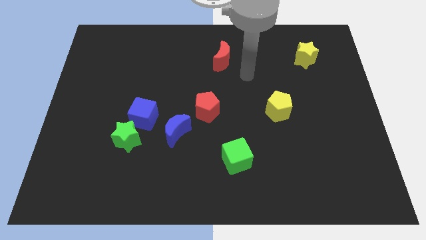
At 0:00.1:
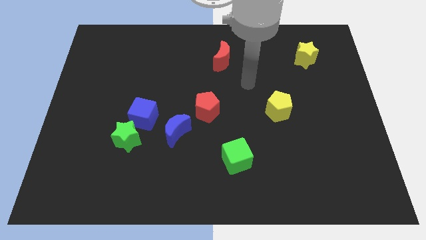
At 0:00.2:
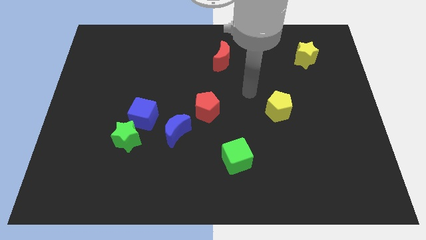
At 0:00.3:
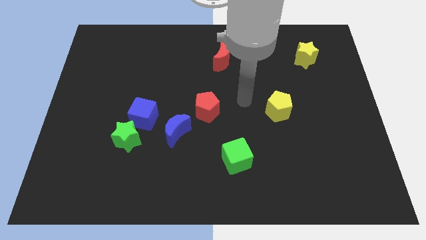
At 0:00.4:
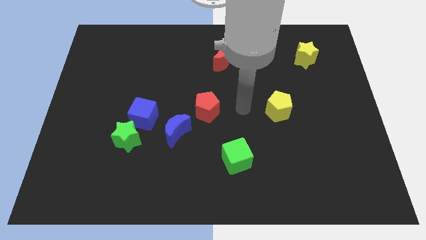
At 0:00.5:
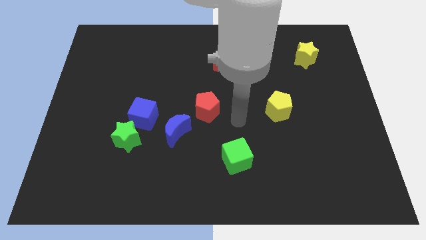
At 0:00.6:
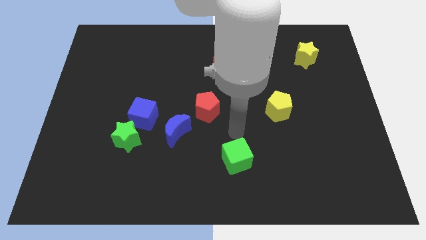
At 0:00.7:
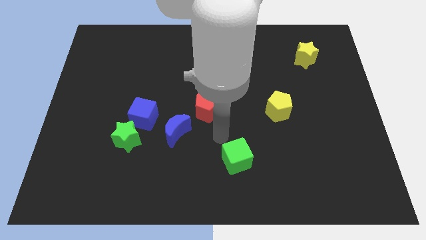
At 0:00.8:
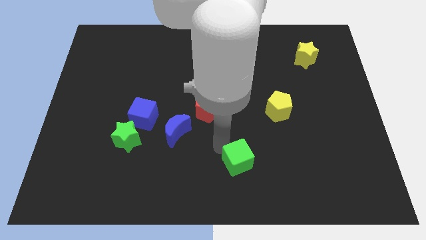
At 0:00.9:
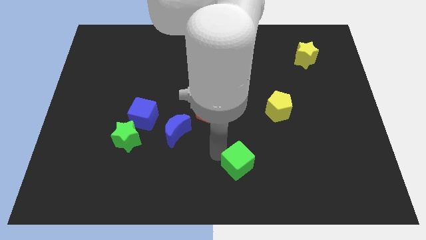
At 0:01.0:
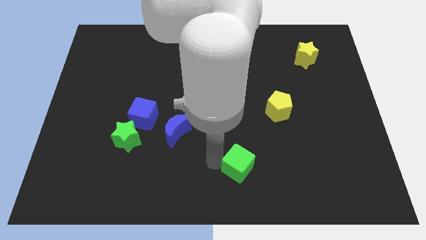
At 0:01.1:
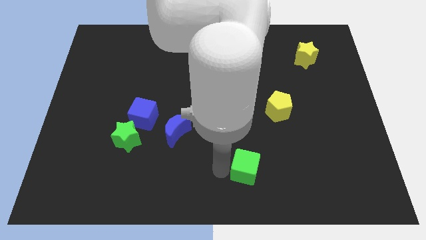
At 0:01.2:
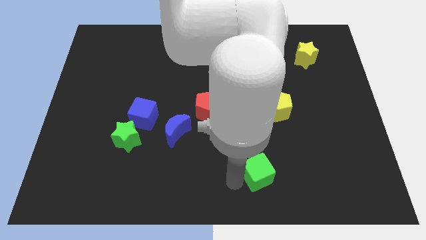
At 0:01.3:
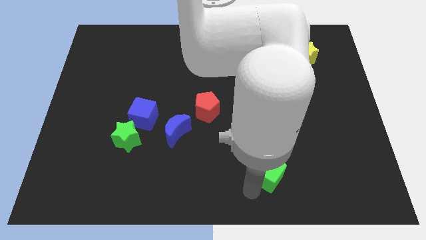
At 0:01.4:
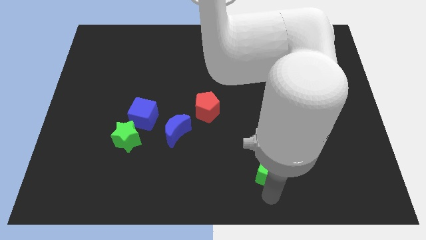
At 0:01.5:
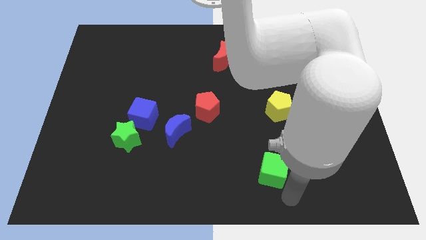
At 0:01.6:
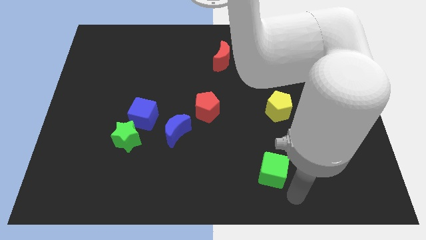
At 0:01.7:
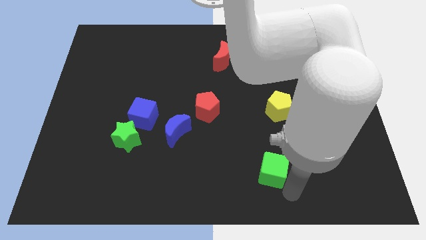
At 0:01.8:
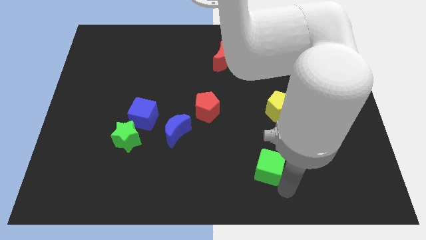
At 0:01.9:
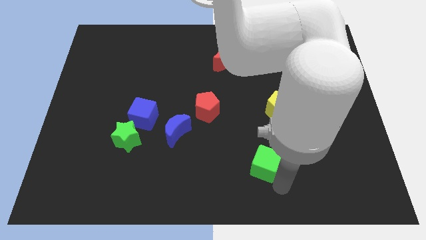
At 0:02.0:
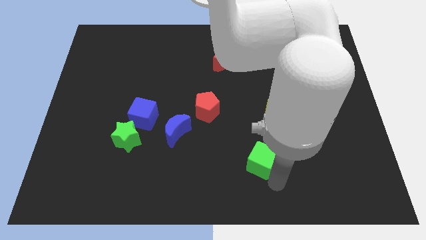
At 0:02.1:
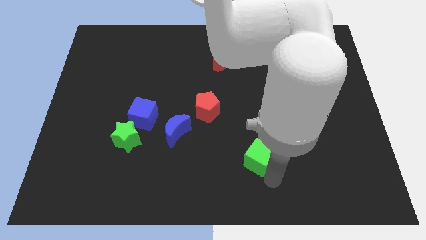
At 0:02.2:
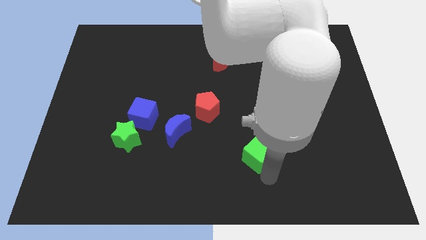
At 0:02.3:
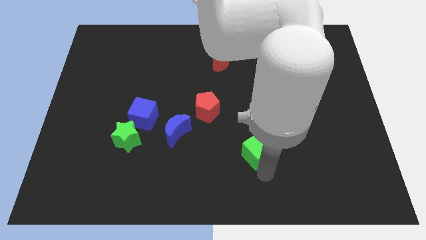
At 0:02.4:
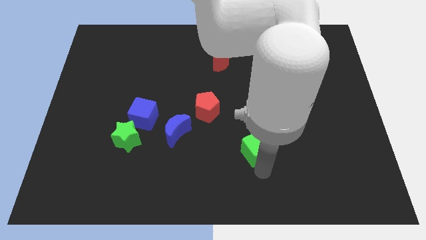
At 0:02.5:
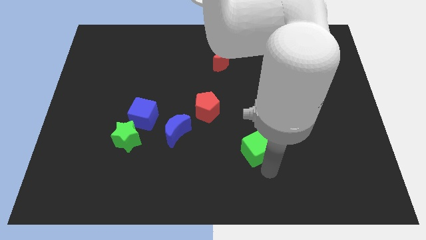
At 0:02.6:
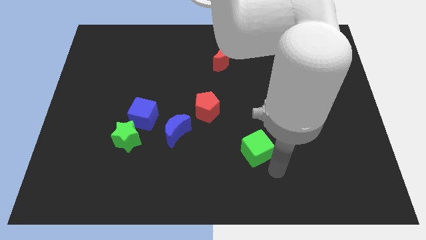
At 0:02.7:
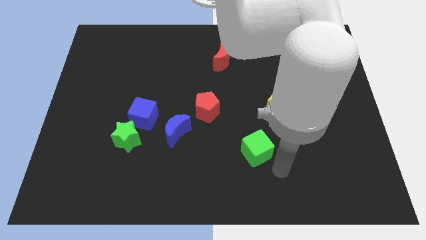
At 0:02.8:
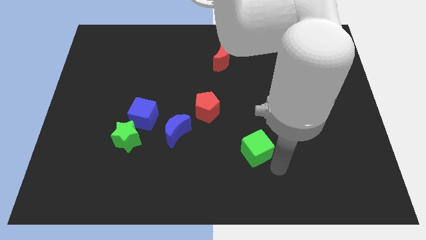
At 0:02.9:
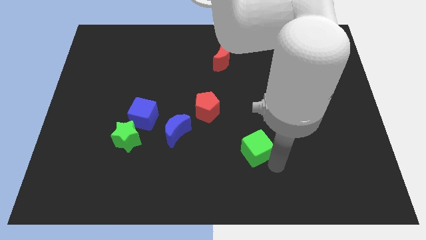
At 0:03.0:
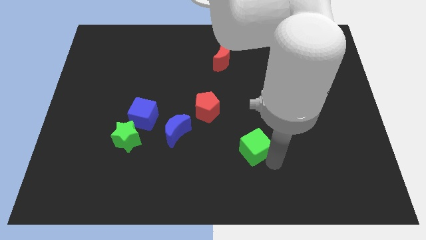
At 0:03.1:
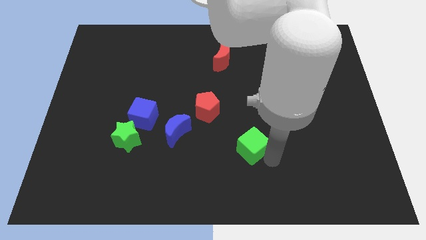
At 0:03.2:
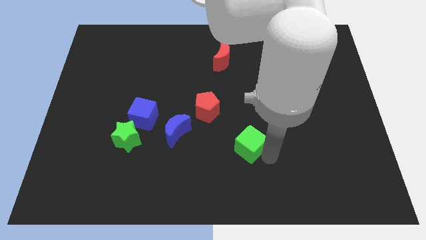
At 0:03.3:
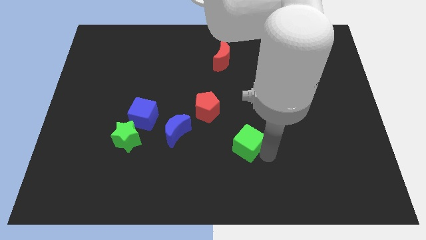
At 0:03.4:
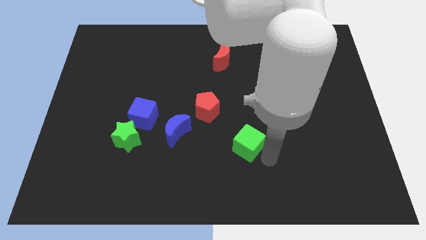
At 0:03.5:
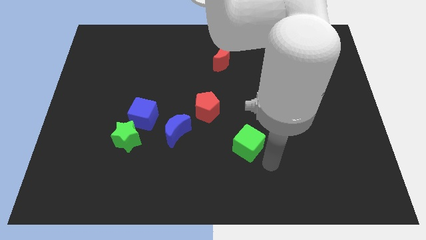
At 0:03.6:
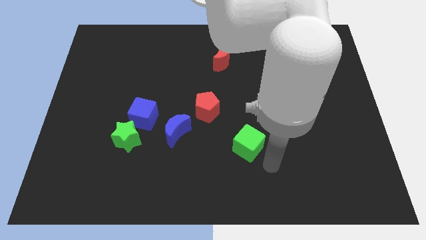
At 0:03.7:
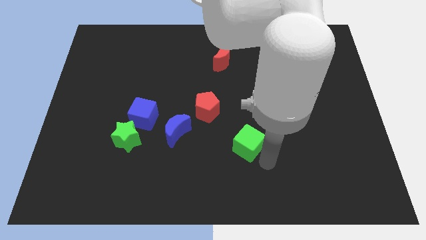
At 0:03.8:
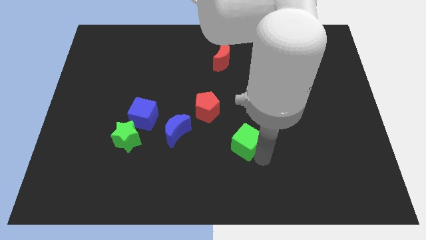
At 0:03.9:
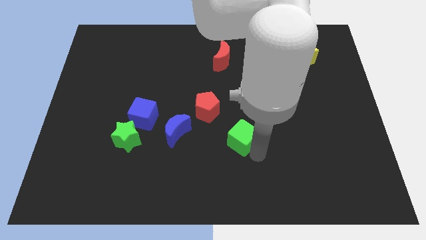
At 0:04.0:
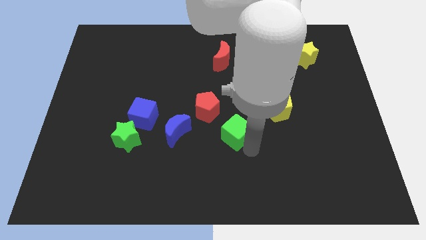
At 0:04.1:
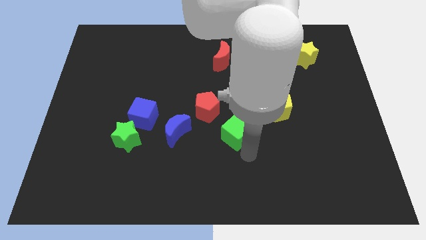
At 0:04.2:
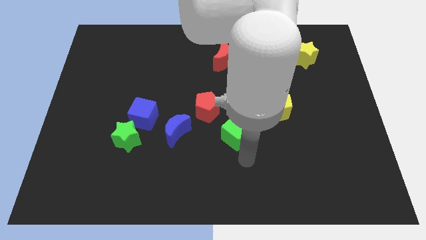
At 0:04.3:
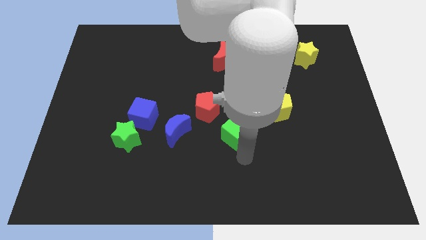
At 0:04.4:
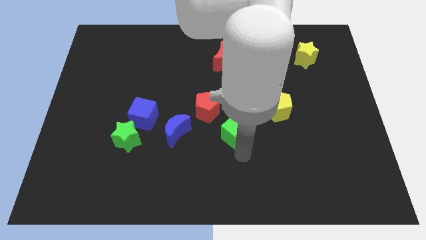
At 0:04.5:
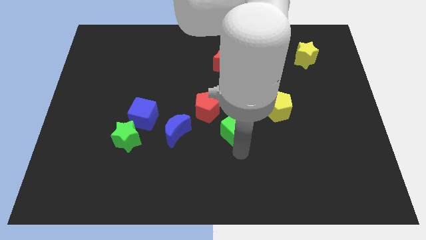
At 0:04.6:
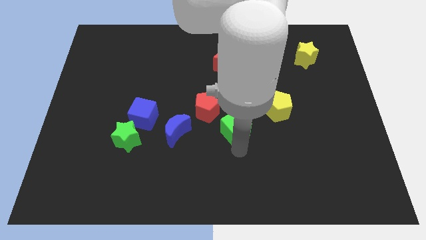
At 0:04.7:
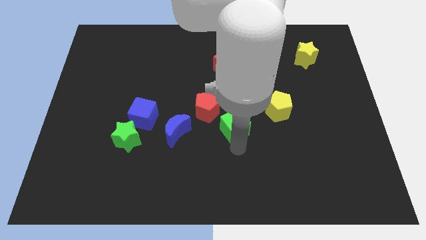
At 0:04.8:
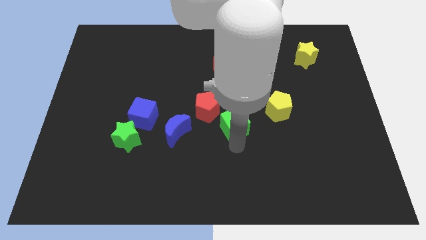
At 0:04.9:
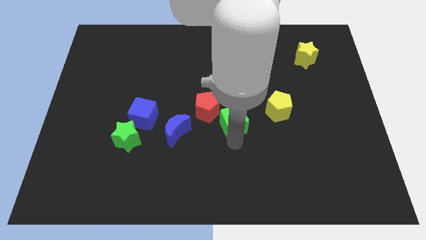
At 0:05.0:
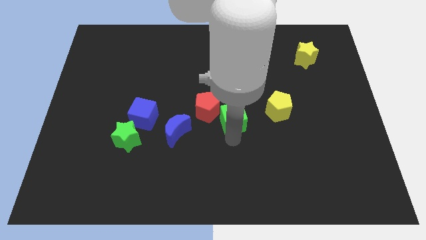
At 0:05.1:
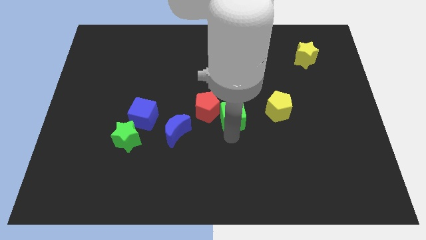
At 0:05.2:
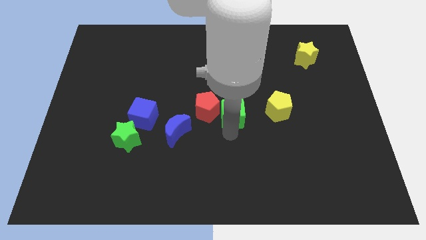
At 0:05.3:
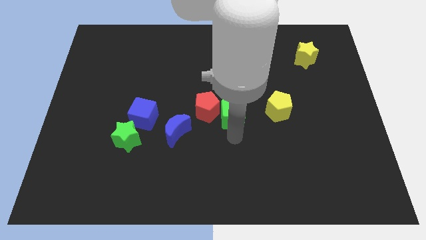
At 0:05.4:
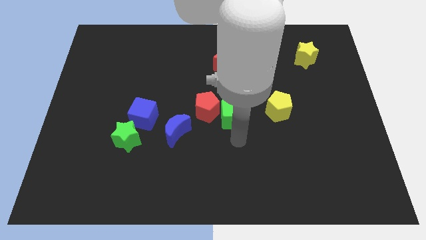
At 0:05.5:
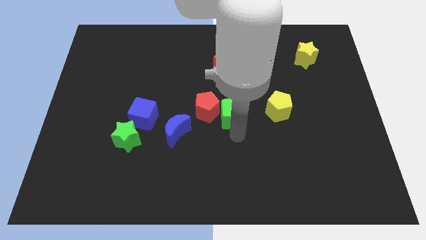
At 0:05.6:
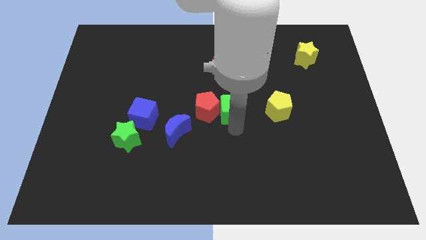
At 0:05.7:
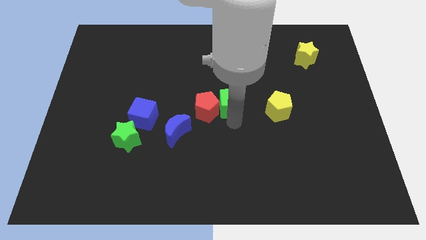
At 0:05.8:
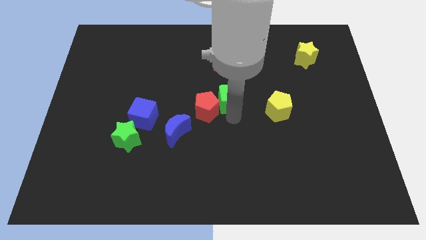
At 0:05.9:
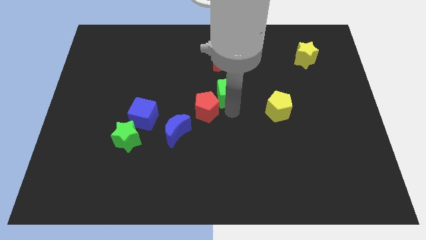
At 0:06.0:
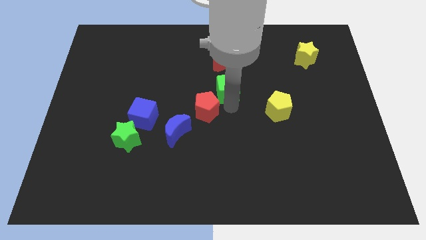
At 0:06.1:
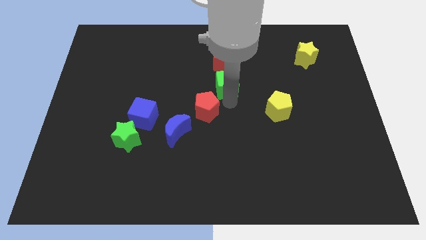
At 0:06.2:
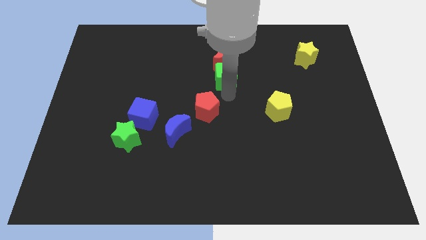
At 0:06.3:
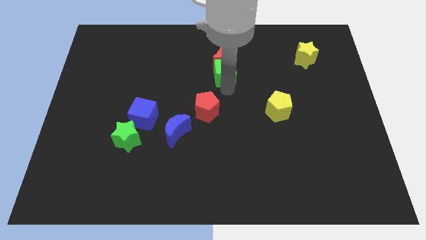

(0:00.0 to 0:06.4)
slide the green cube next to the red moon

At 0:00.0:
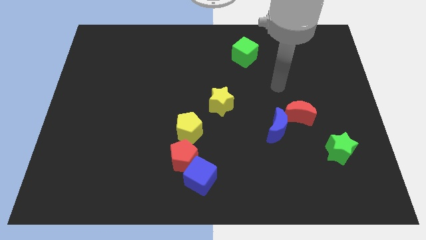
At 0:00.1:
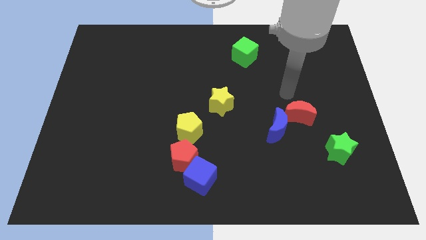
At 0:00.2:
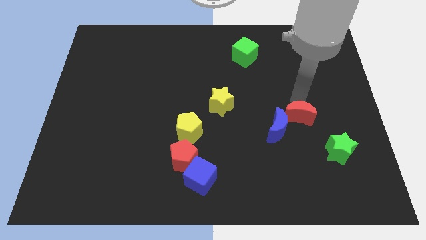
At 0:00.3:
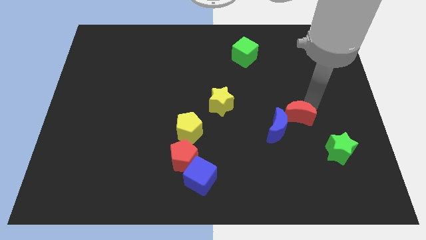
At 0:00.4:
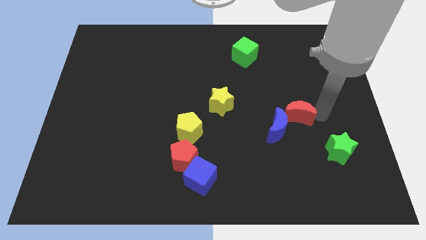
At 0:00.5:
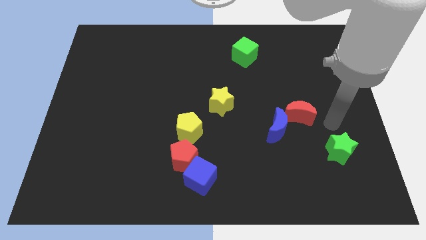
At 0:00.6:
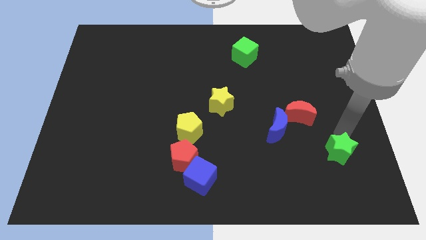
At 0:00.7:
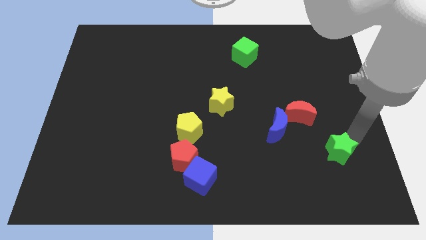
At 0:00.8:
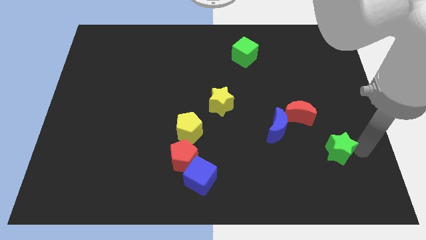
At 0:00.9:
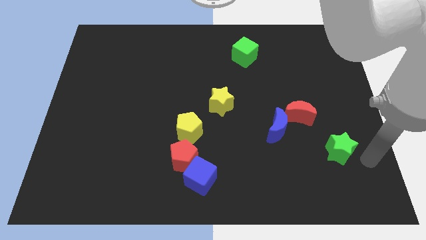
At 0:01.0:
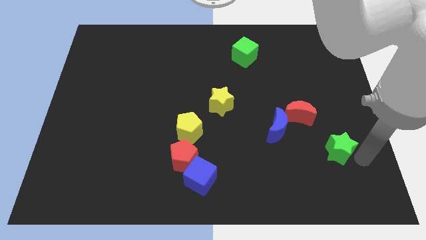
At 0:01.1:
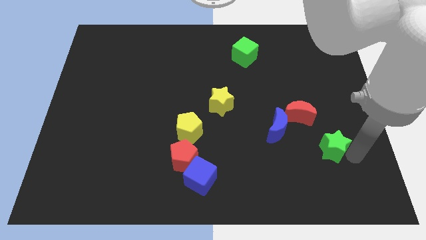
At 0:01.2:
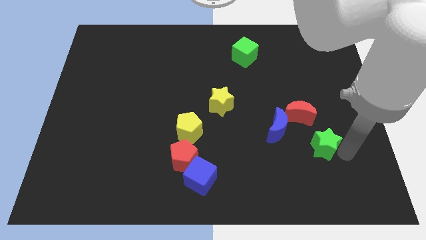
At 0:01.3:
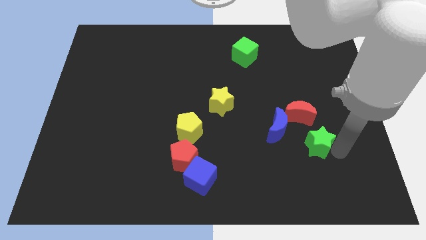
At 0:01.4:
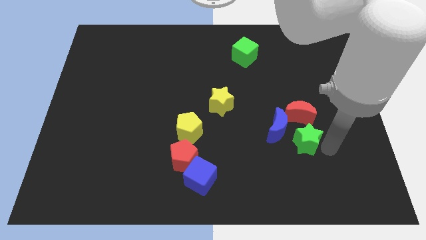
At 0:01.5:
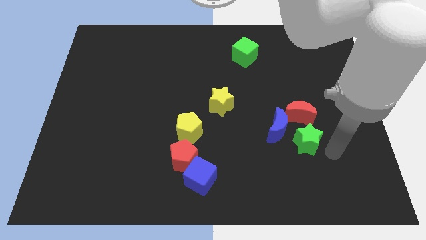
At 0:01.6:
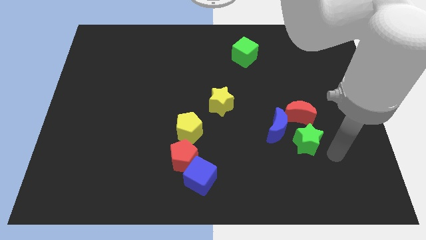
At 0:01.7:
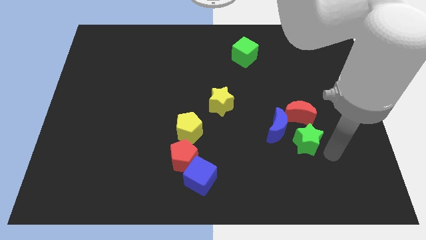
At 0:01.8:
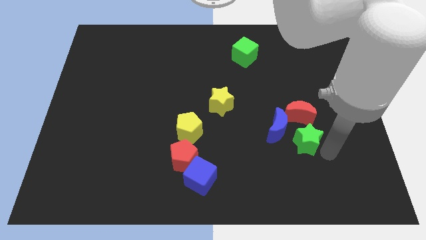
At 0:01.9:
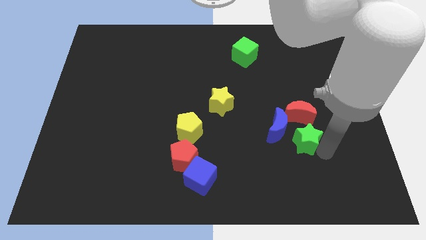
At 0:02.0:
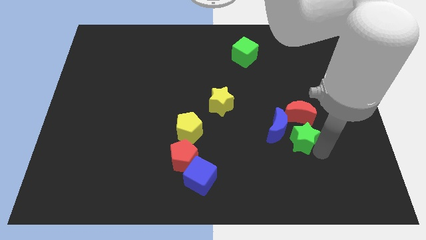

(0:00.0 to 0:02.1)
slide the green star to the blue moon
